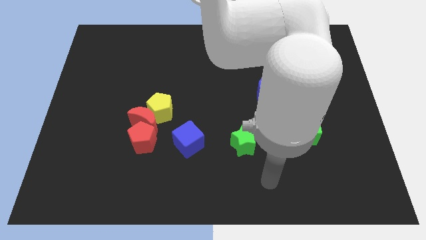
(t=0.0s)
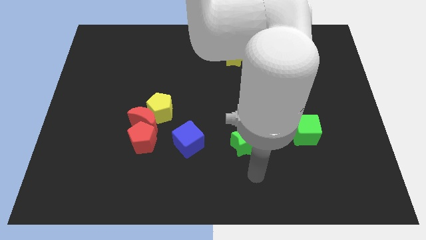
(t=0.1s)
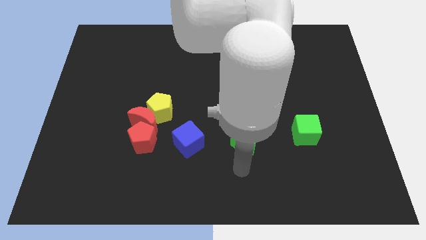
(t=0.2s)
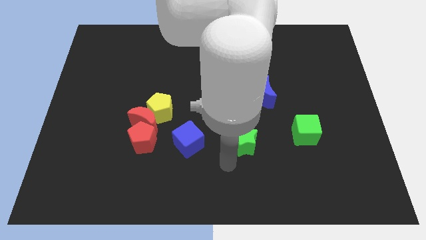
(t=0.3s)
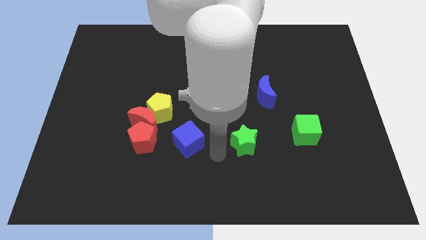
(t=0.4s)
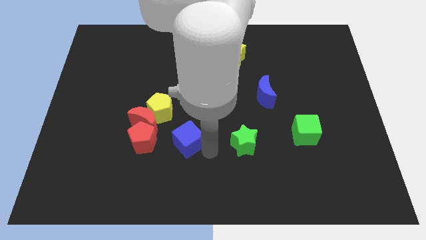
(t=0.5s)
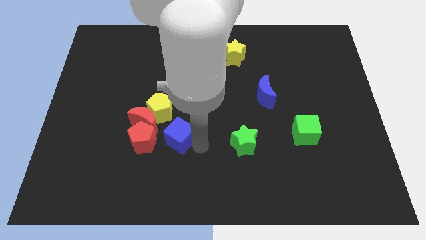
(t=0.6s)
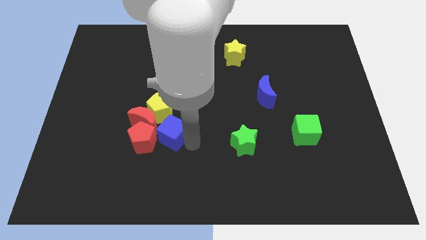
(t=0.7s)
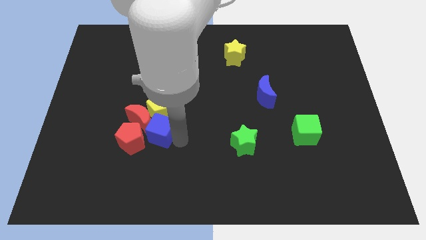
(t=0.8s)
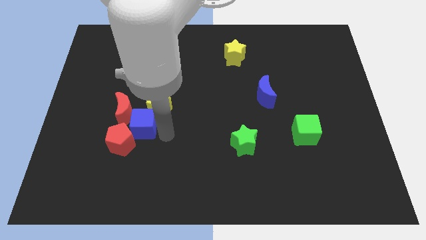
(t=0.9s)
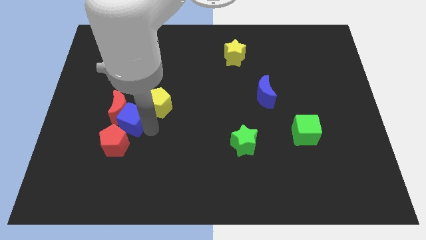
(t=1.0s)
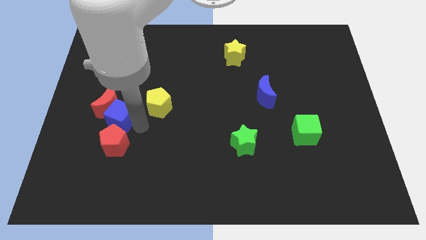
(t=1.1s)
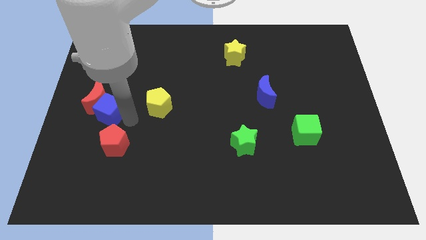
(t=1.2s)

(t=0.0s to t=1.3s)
move the red moon away from the yellow pentagon and red pentagon

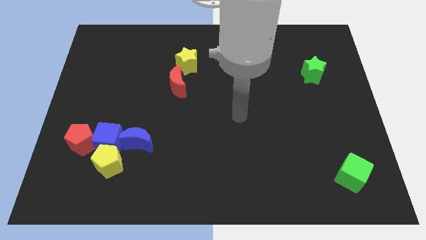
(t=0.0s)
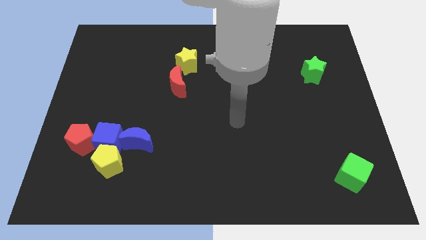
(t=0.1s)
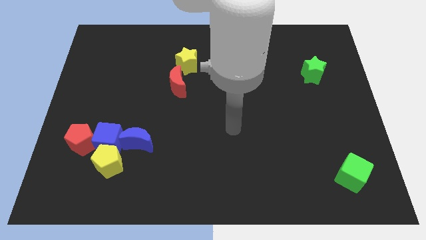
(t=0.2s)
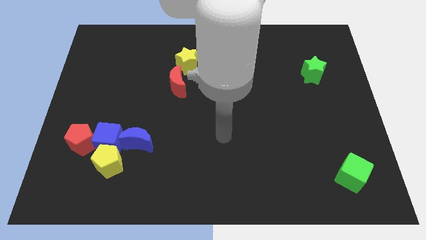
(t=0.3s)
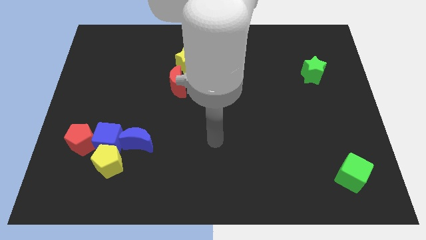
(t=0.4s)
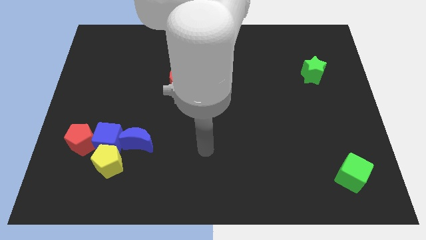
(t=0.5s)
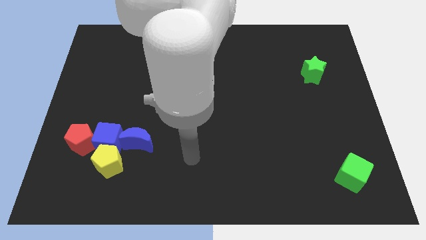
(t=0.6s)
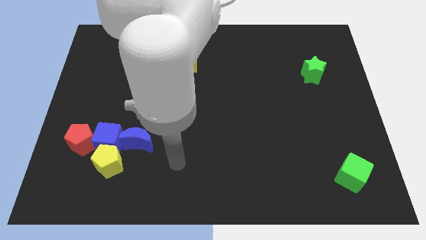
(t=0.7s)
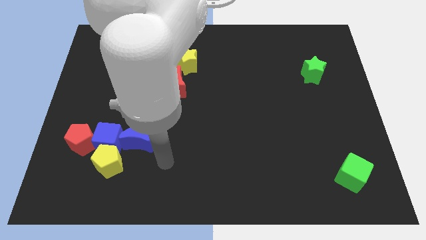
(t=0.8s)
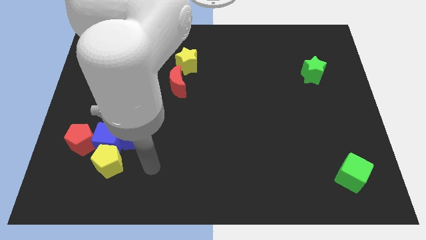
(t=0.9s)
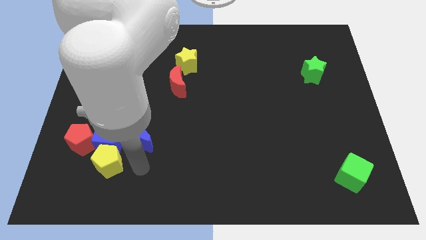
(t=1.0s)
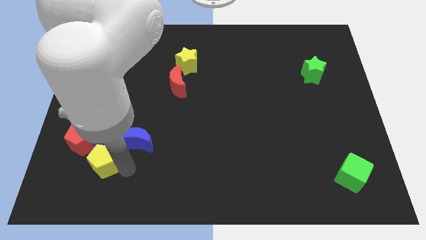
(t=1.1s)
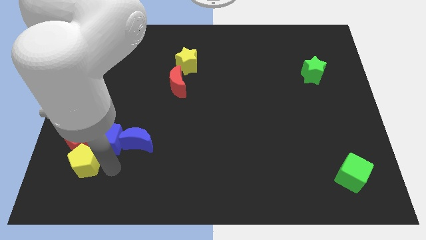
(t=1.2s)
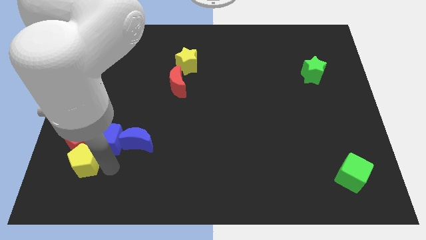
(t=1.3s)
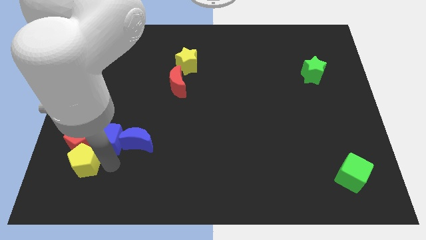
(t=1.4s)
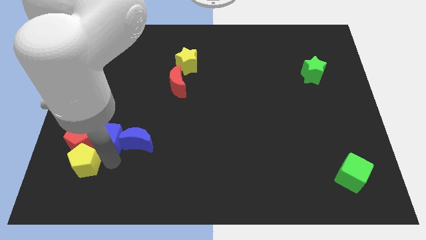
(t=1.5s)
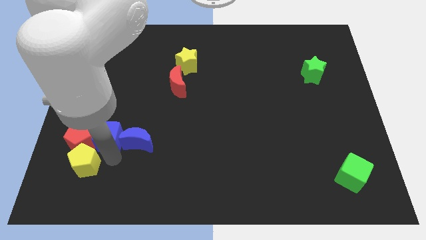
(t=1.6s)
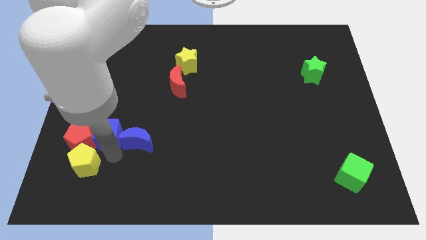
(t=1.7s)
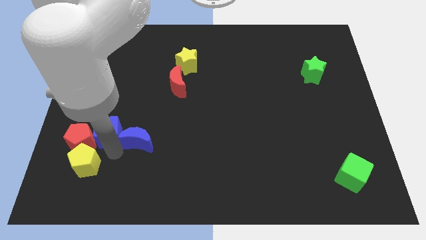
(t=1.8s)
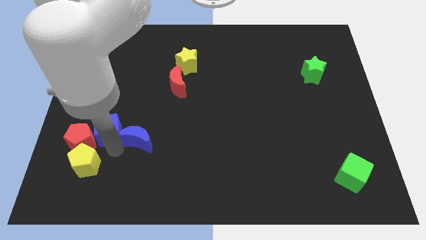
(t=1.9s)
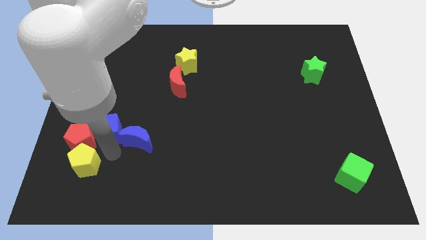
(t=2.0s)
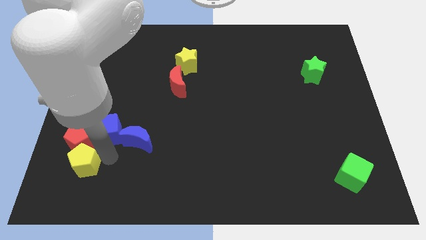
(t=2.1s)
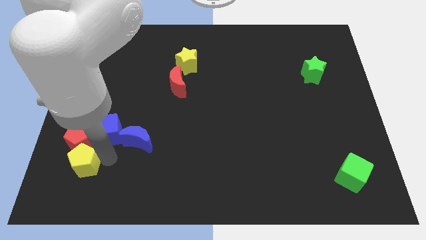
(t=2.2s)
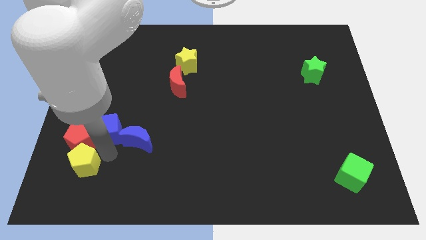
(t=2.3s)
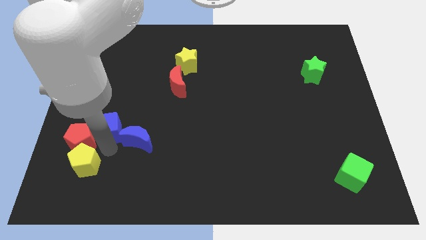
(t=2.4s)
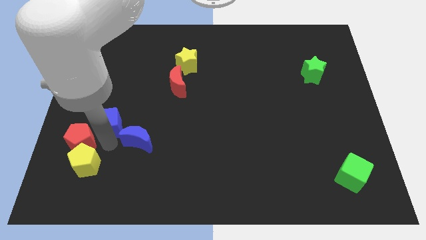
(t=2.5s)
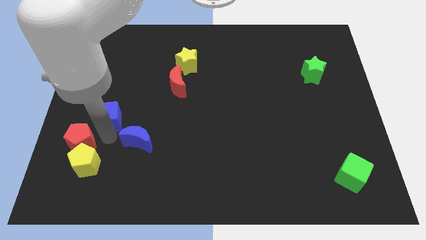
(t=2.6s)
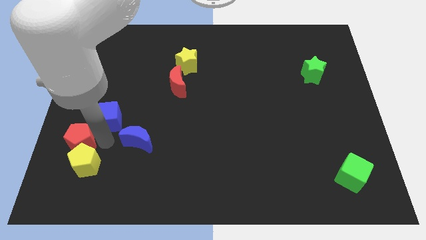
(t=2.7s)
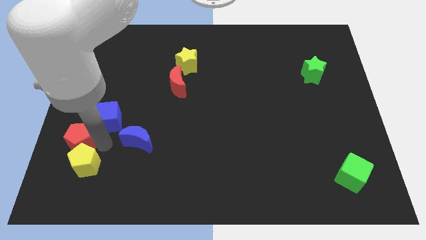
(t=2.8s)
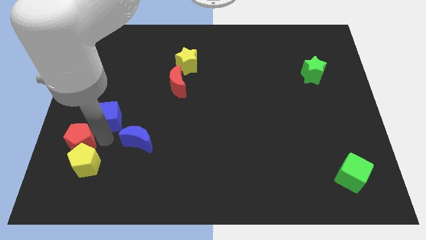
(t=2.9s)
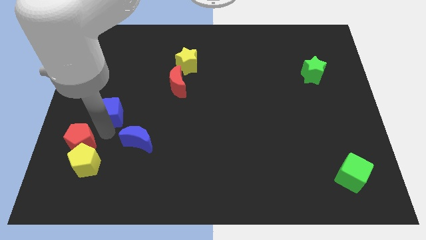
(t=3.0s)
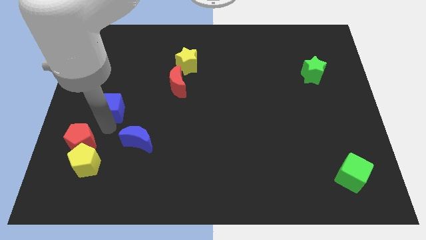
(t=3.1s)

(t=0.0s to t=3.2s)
pull the blue cube apart from the yellow pentagon, red pentagon, and blue moon

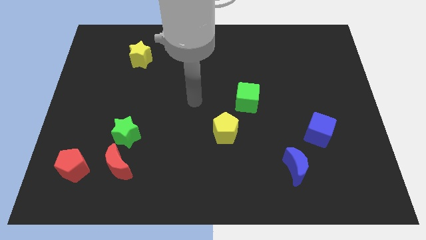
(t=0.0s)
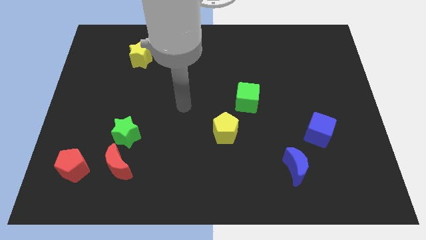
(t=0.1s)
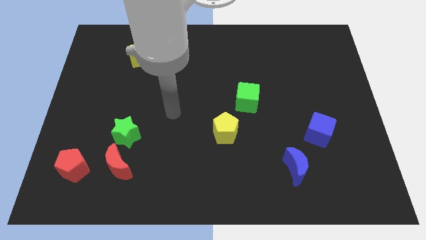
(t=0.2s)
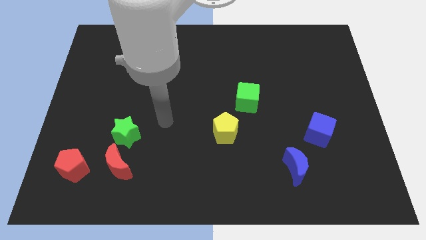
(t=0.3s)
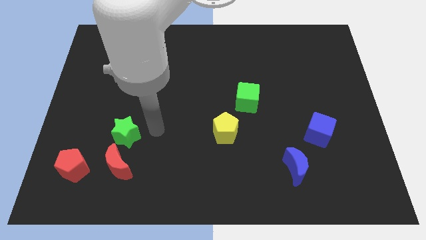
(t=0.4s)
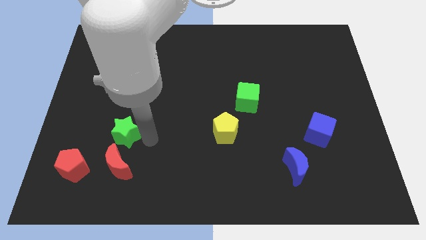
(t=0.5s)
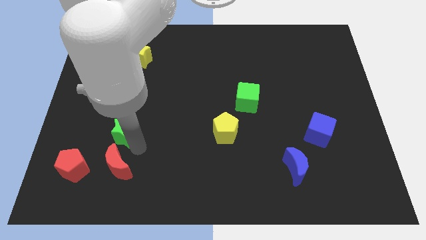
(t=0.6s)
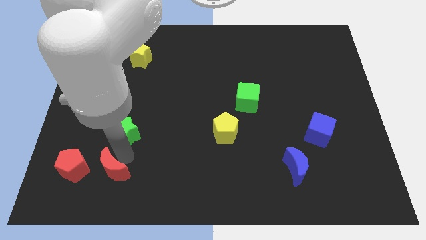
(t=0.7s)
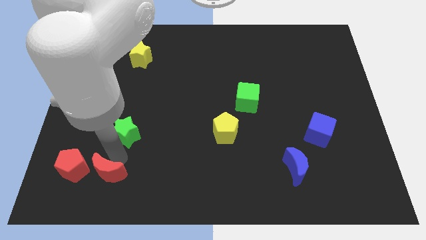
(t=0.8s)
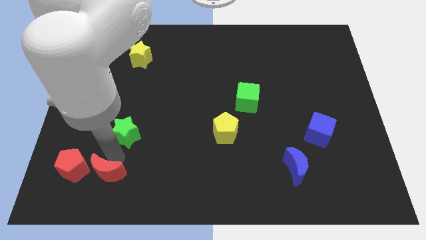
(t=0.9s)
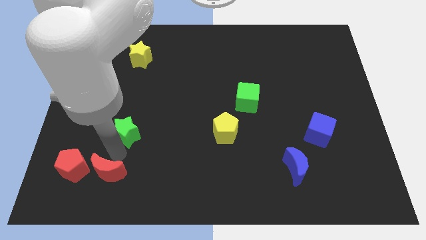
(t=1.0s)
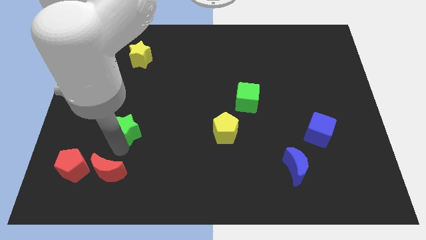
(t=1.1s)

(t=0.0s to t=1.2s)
pull the green star apart from the red moon

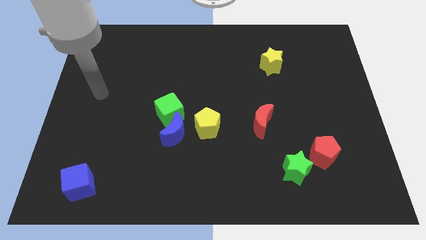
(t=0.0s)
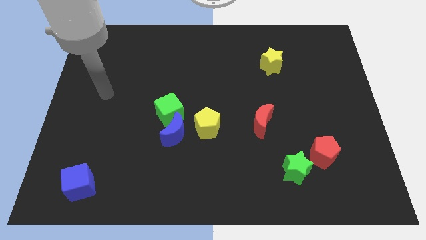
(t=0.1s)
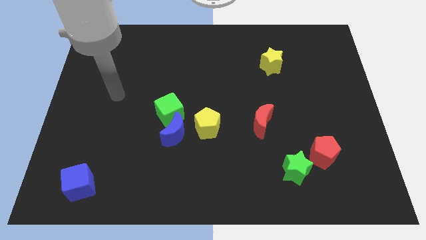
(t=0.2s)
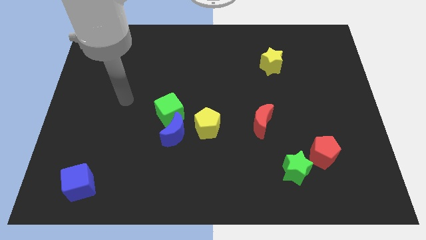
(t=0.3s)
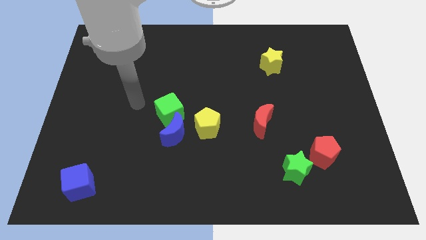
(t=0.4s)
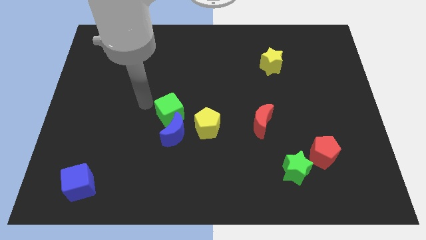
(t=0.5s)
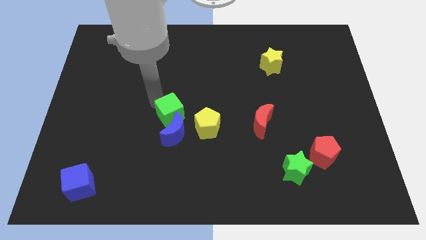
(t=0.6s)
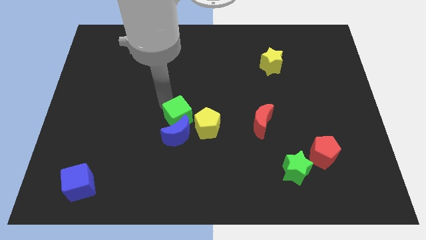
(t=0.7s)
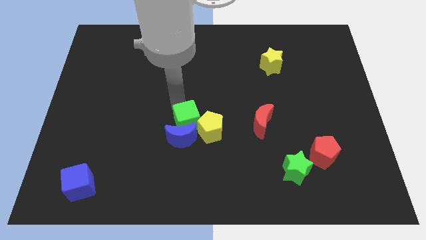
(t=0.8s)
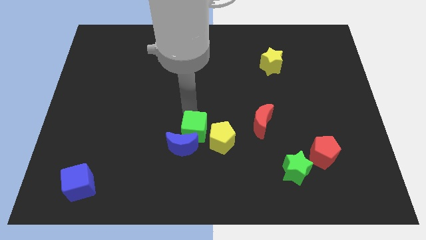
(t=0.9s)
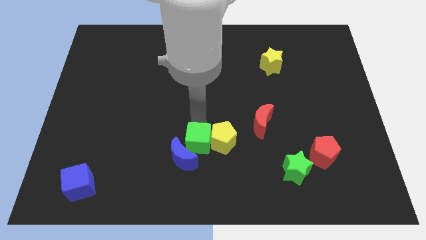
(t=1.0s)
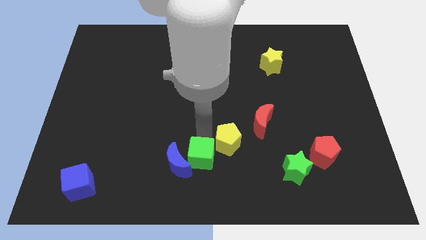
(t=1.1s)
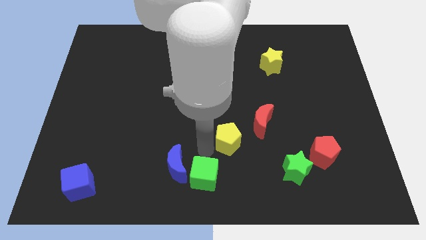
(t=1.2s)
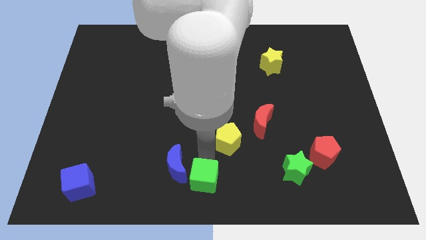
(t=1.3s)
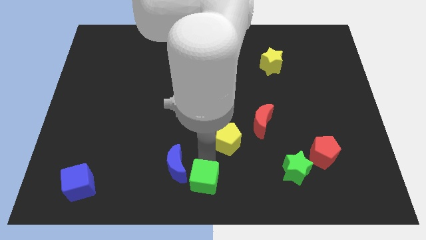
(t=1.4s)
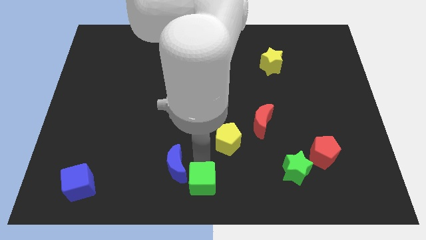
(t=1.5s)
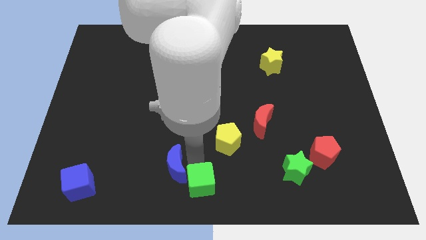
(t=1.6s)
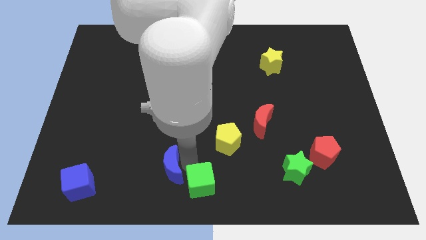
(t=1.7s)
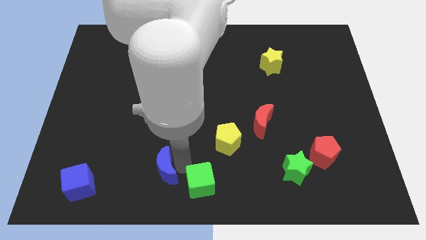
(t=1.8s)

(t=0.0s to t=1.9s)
separate the blue moon from the green cube and yellow pentagon

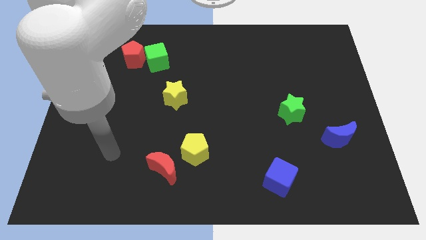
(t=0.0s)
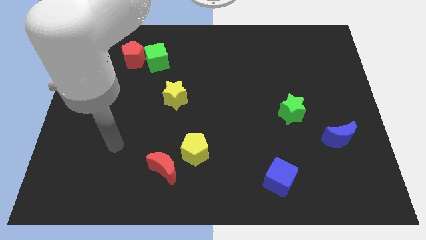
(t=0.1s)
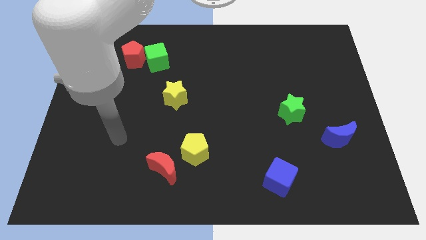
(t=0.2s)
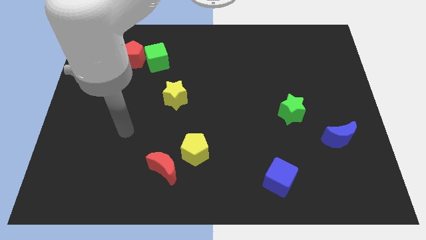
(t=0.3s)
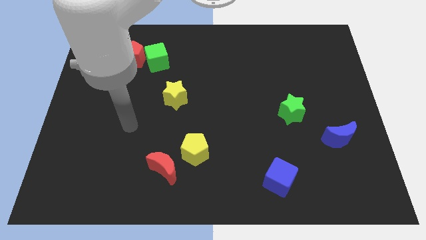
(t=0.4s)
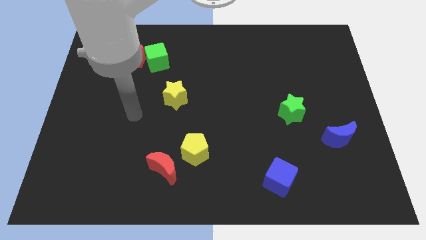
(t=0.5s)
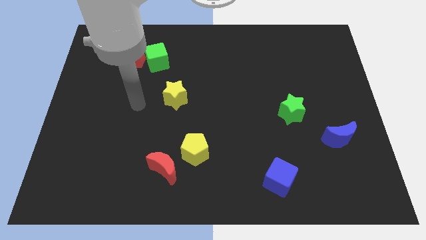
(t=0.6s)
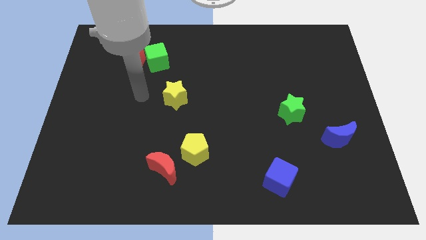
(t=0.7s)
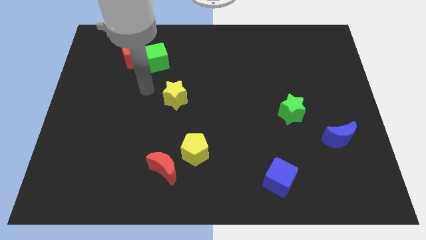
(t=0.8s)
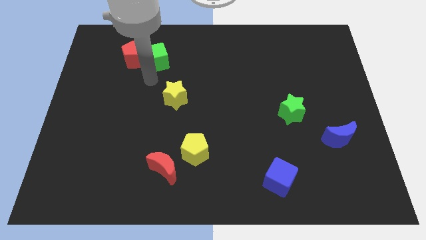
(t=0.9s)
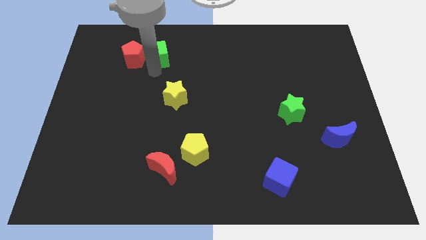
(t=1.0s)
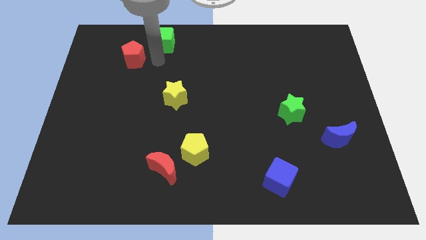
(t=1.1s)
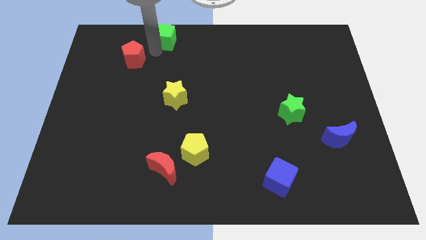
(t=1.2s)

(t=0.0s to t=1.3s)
pull the red pentagon apart from the green cube

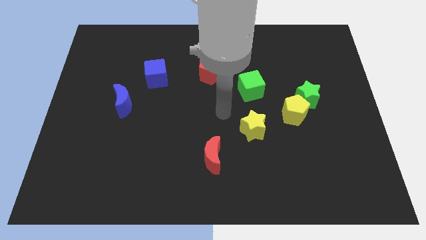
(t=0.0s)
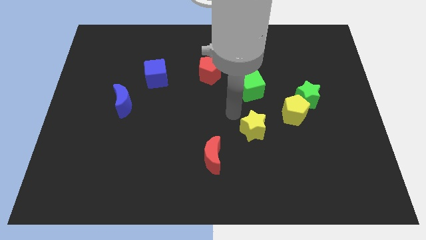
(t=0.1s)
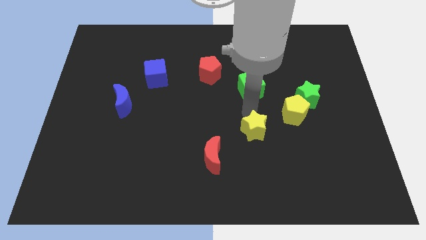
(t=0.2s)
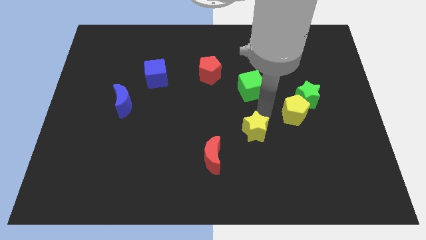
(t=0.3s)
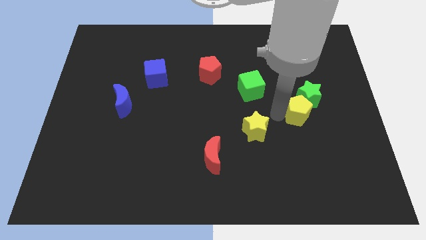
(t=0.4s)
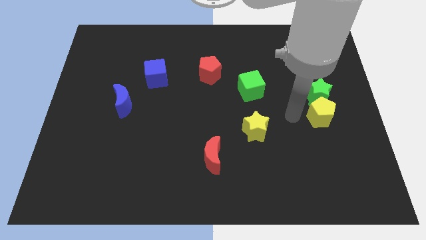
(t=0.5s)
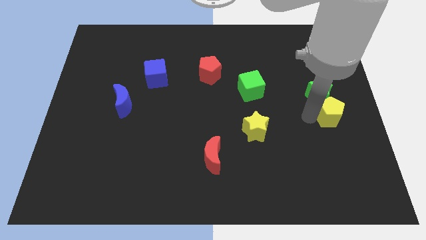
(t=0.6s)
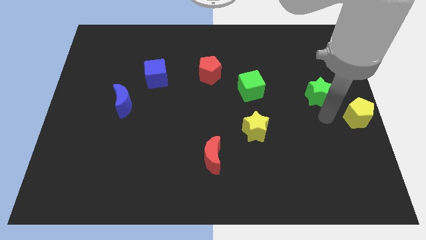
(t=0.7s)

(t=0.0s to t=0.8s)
pull the green star apart from the yellow pentagon
